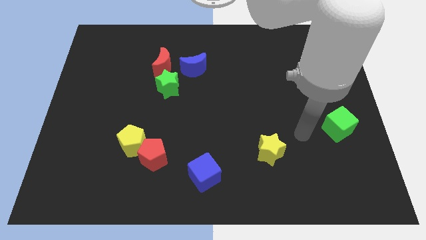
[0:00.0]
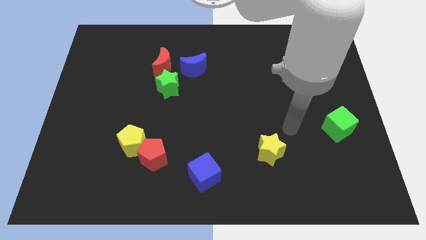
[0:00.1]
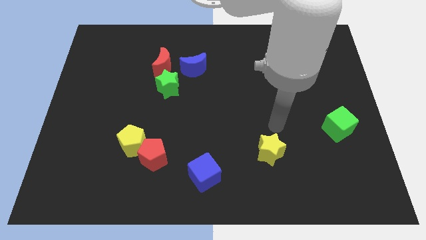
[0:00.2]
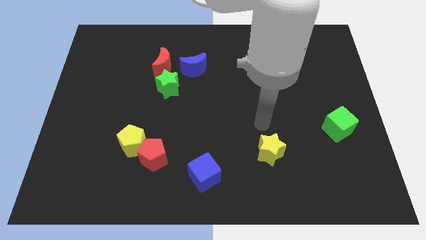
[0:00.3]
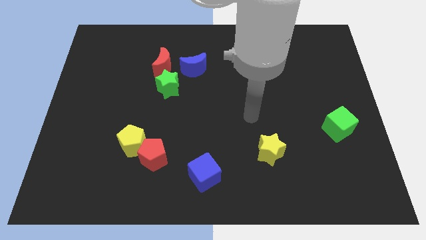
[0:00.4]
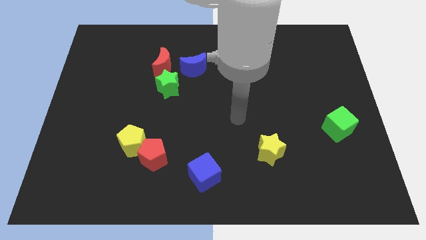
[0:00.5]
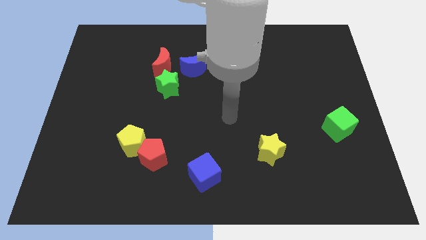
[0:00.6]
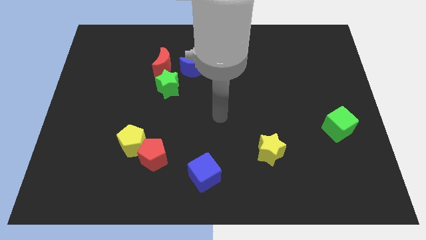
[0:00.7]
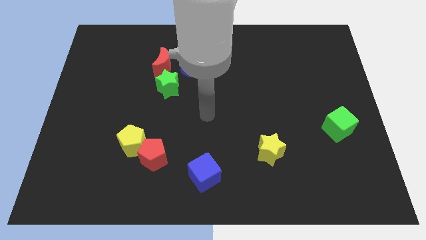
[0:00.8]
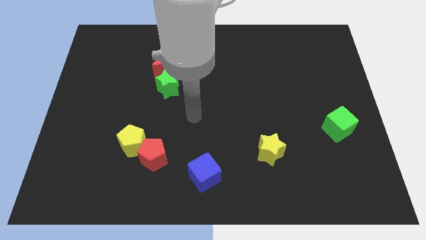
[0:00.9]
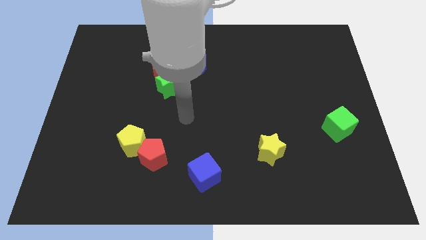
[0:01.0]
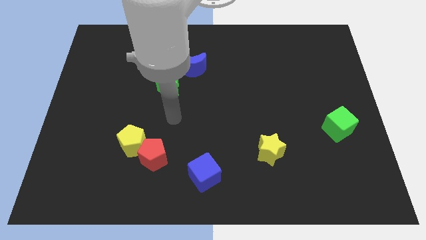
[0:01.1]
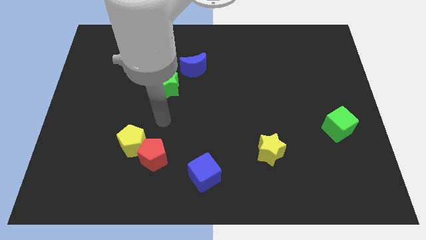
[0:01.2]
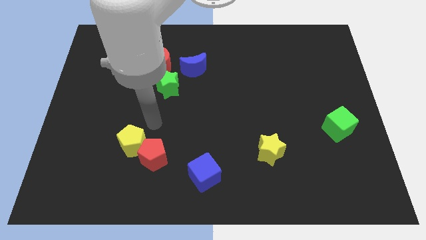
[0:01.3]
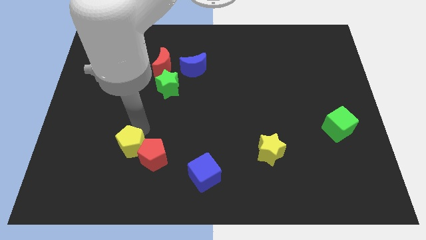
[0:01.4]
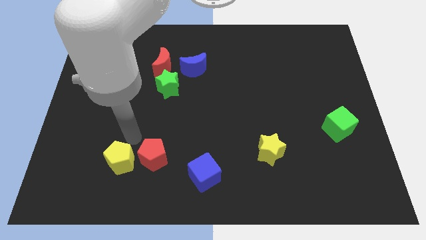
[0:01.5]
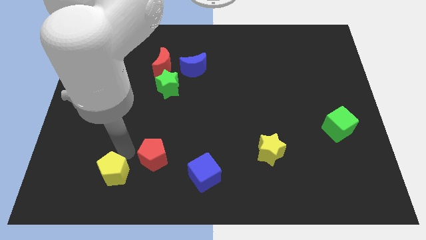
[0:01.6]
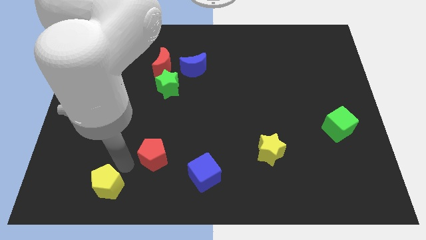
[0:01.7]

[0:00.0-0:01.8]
separate the red pentagon from the yellow pentagon

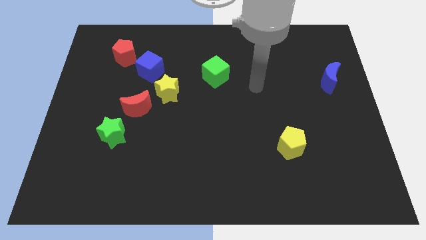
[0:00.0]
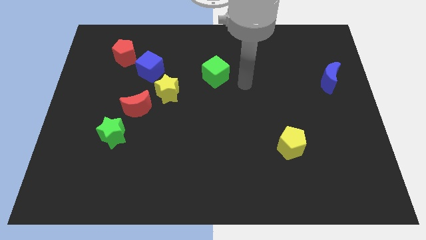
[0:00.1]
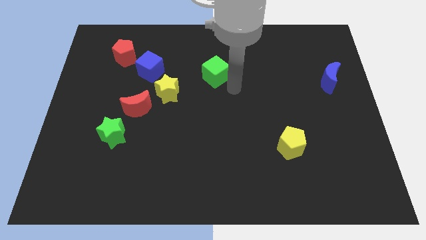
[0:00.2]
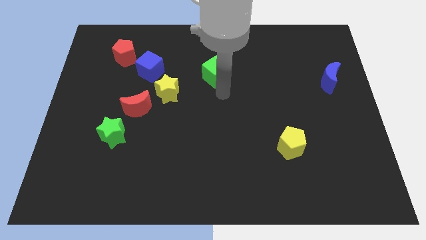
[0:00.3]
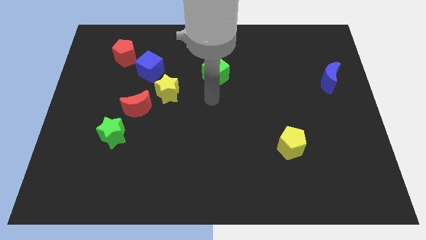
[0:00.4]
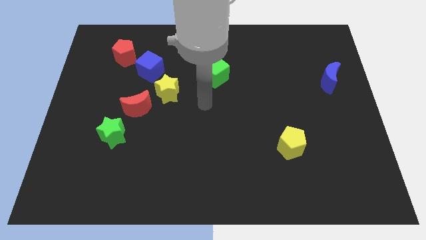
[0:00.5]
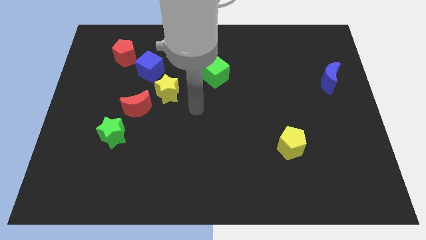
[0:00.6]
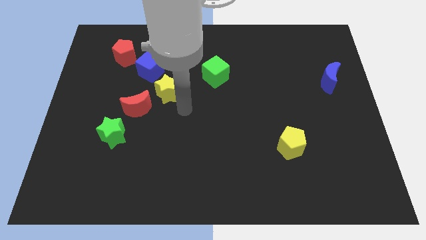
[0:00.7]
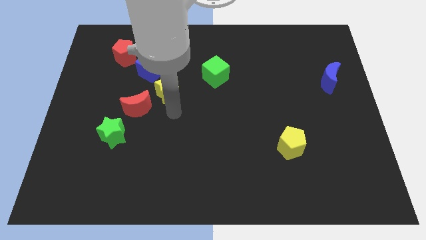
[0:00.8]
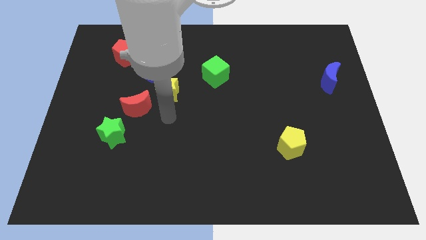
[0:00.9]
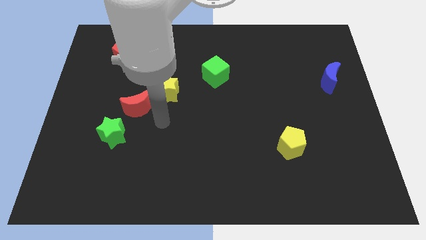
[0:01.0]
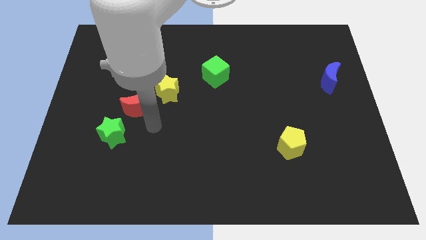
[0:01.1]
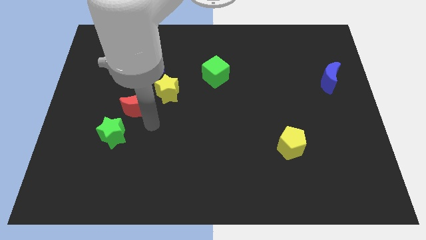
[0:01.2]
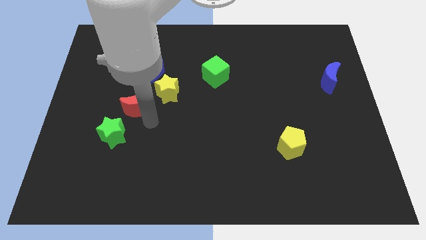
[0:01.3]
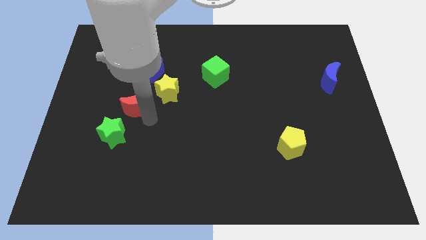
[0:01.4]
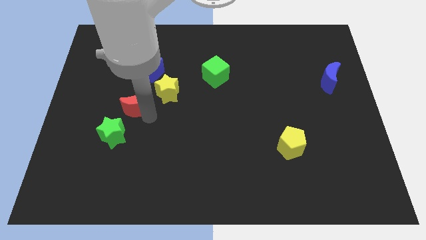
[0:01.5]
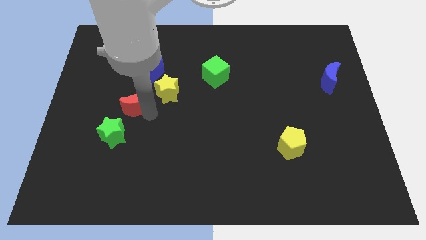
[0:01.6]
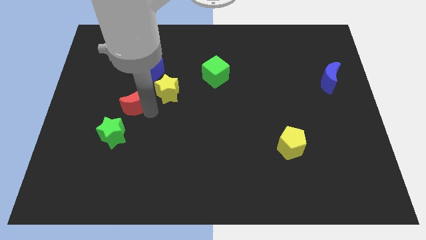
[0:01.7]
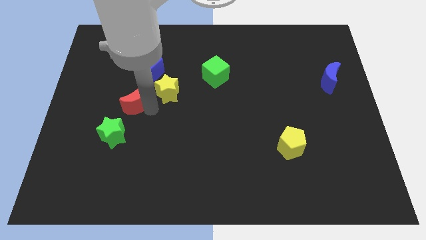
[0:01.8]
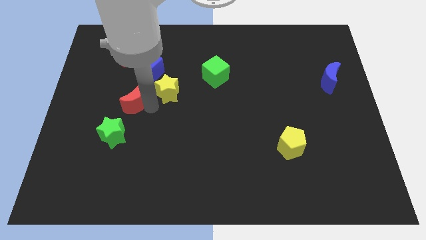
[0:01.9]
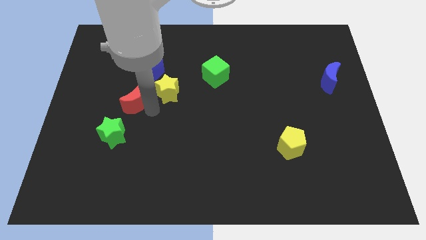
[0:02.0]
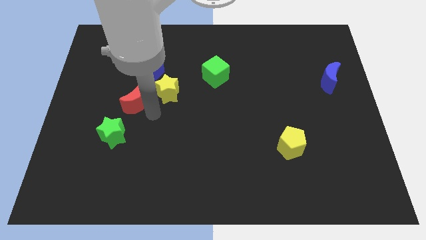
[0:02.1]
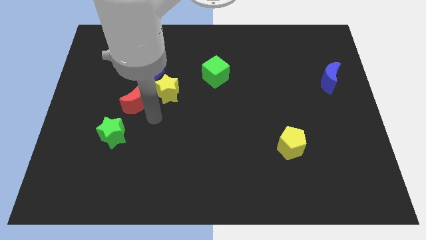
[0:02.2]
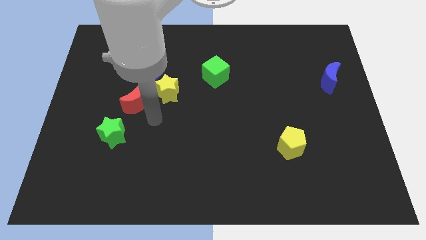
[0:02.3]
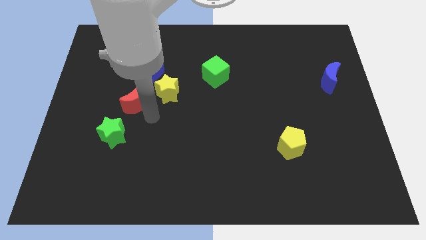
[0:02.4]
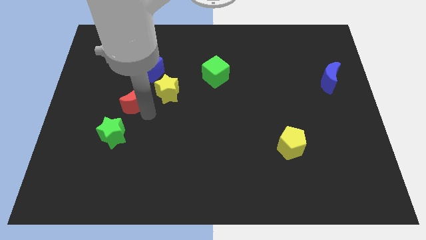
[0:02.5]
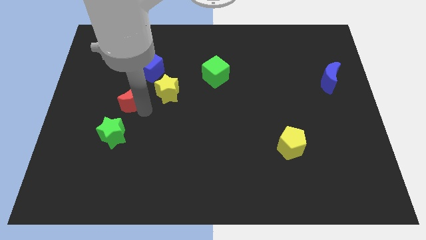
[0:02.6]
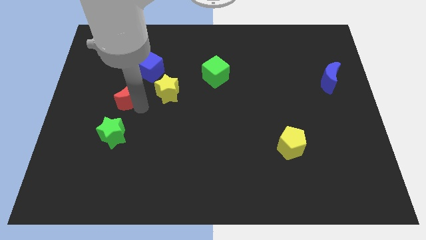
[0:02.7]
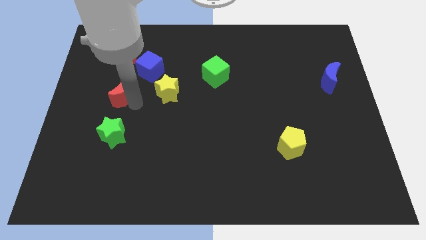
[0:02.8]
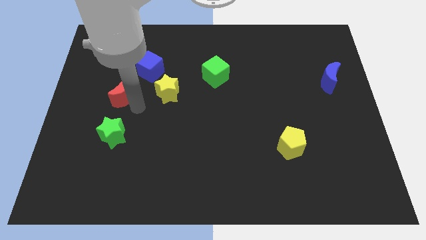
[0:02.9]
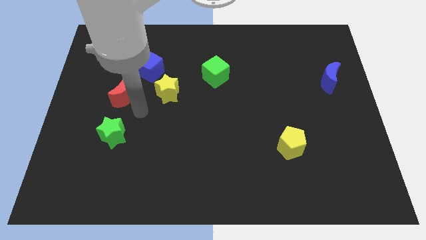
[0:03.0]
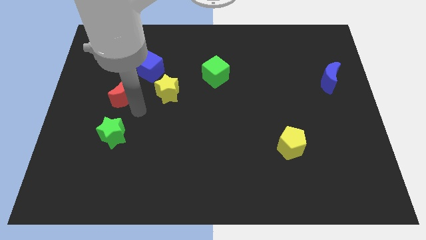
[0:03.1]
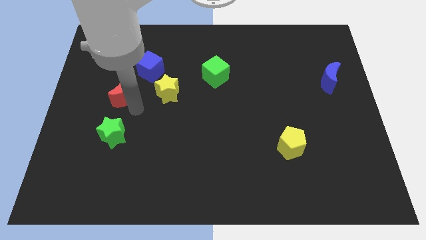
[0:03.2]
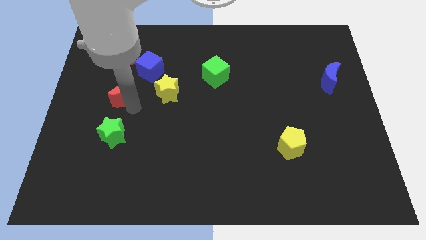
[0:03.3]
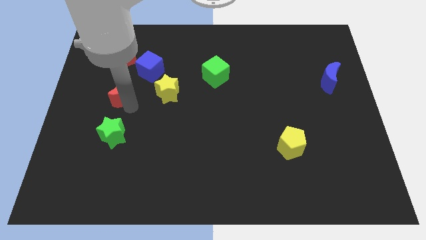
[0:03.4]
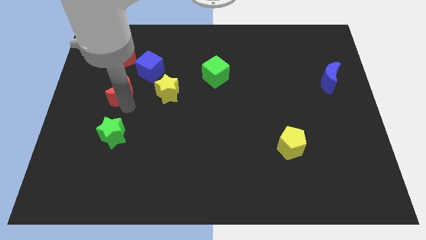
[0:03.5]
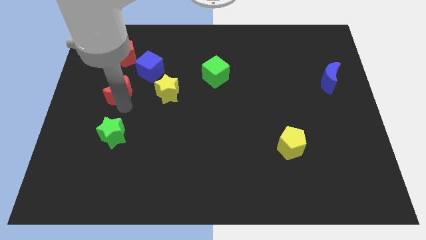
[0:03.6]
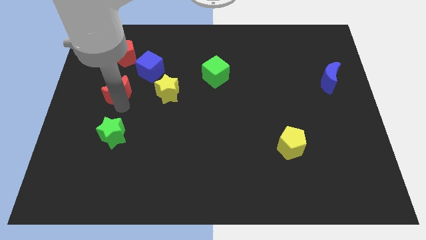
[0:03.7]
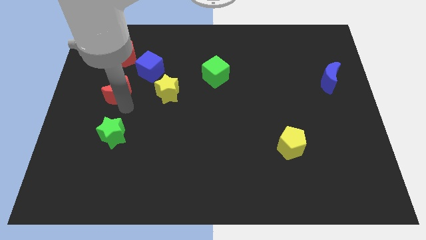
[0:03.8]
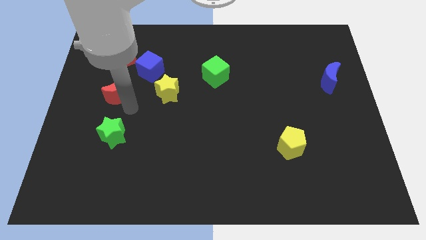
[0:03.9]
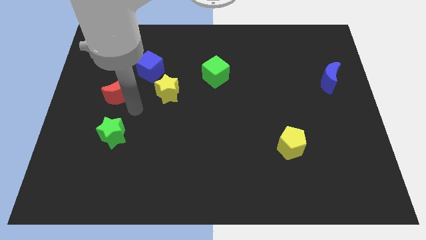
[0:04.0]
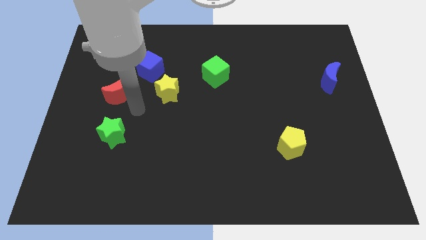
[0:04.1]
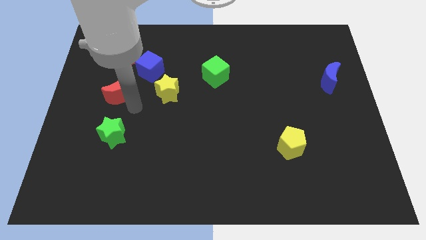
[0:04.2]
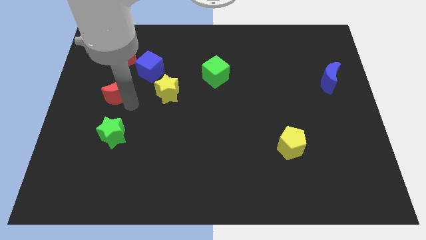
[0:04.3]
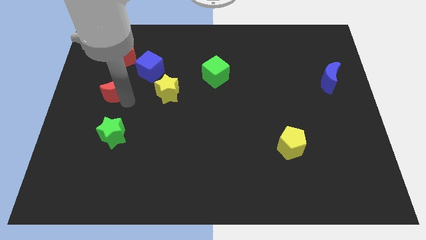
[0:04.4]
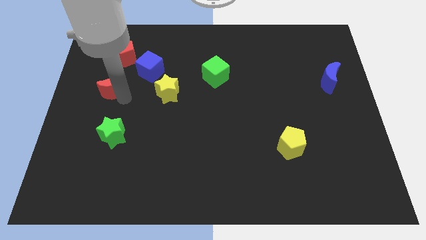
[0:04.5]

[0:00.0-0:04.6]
move the red moon away from the yellow star and green star

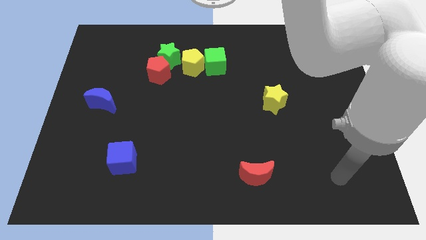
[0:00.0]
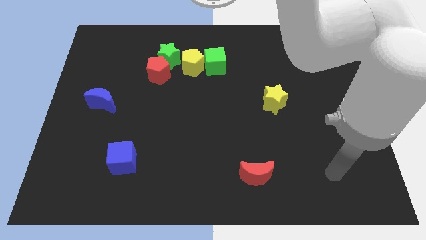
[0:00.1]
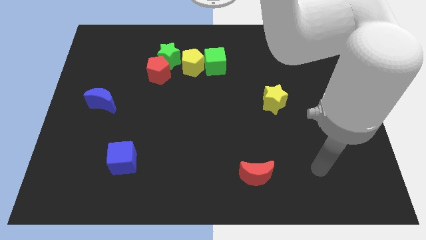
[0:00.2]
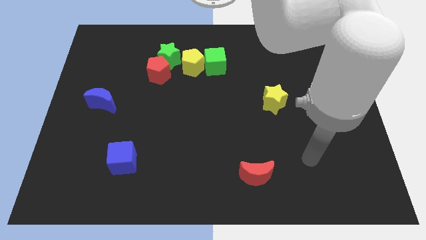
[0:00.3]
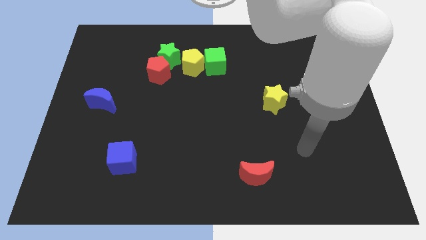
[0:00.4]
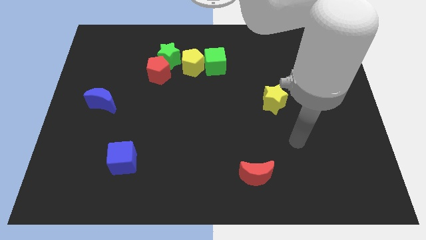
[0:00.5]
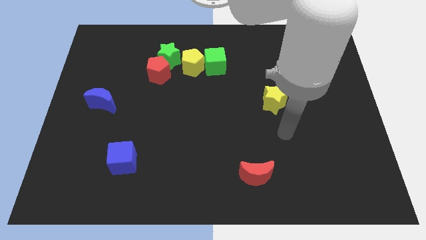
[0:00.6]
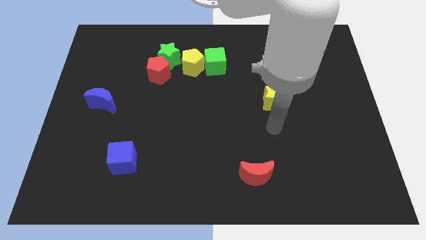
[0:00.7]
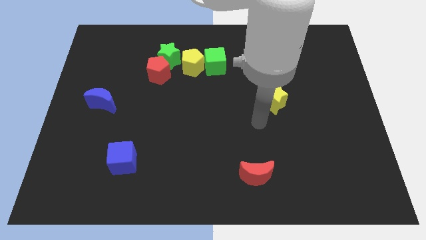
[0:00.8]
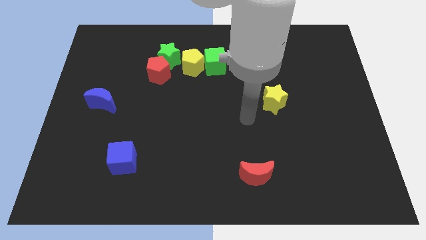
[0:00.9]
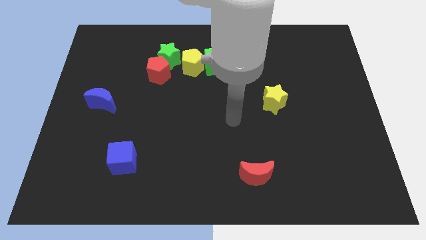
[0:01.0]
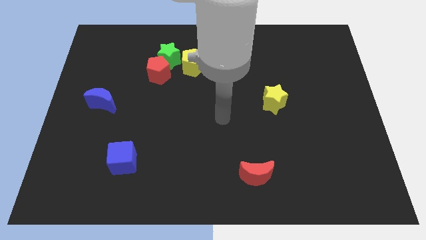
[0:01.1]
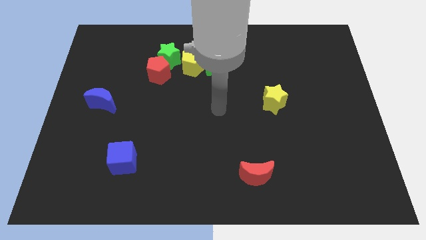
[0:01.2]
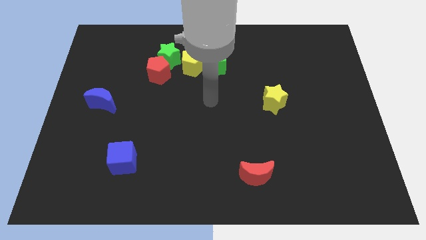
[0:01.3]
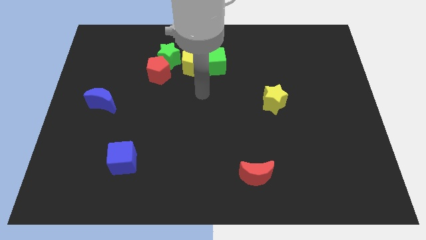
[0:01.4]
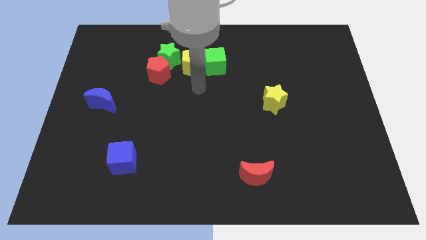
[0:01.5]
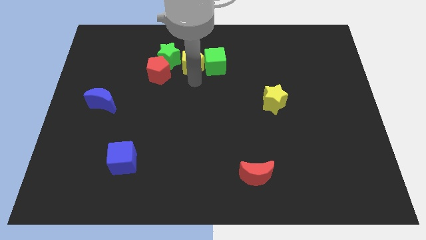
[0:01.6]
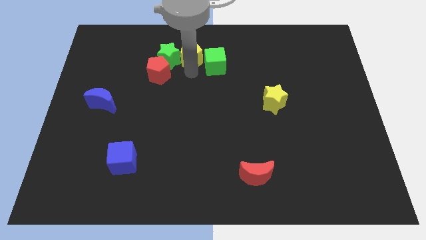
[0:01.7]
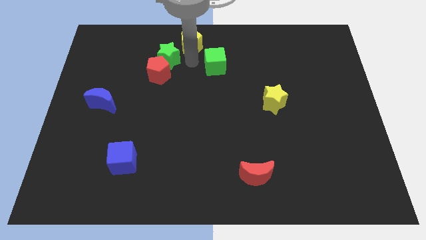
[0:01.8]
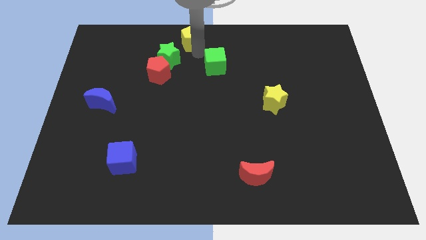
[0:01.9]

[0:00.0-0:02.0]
move the green cube away from the yellow pentagon

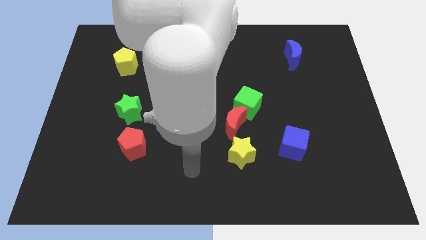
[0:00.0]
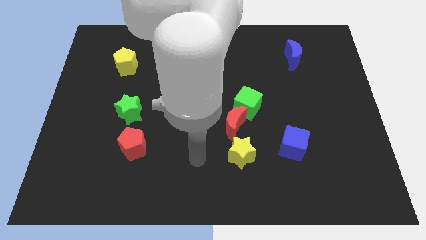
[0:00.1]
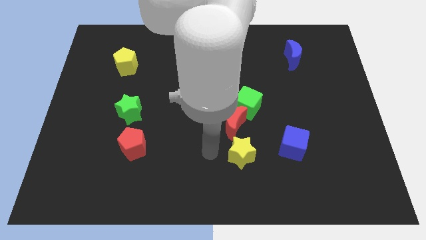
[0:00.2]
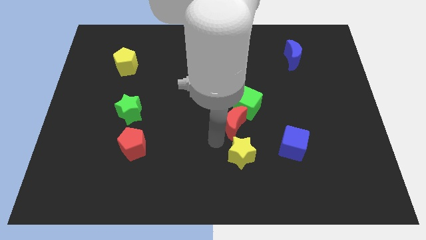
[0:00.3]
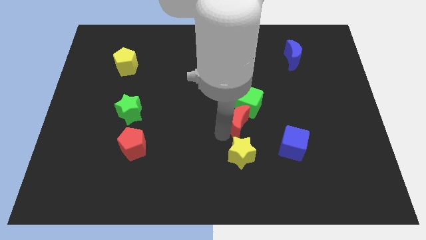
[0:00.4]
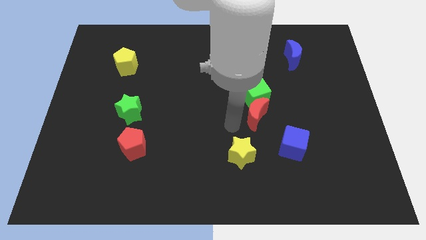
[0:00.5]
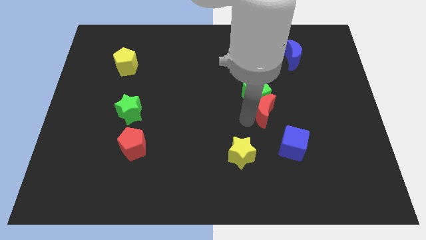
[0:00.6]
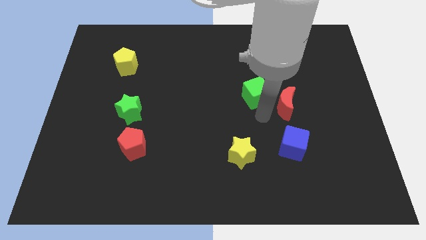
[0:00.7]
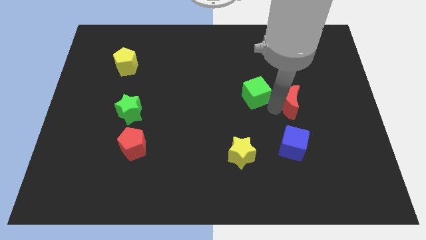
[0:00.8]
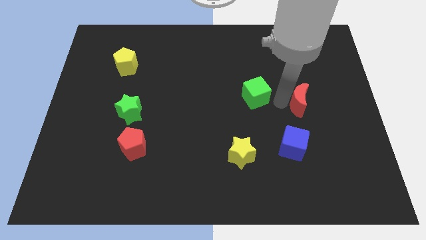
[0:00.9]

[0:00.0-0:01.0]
pull the green cube apart from the red moon
